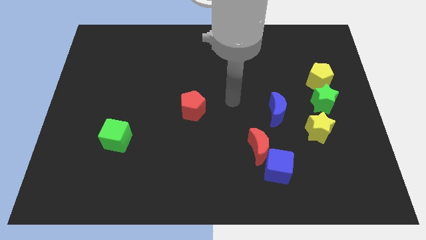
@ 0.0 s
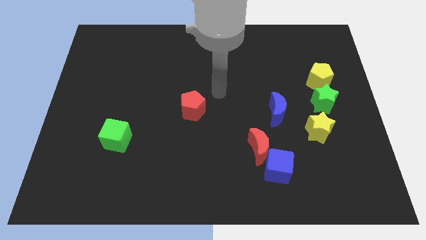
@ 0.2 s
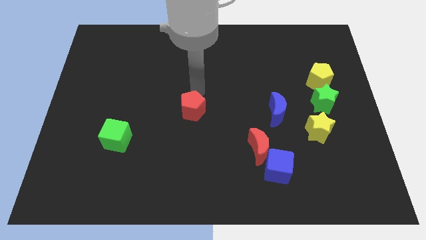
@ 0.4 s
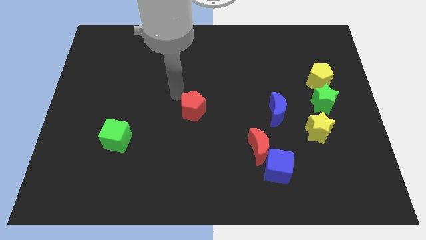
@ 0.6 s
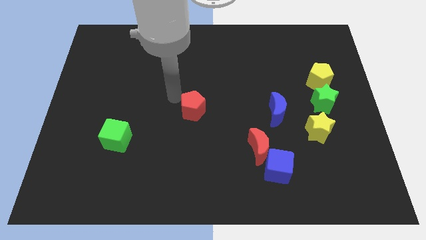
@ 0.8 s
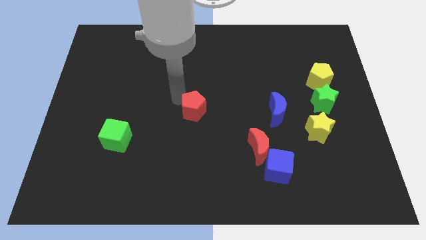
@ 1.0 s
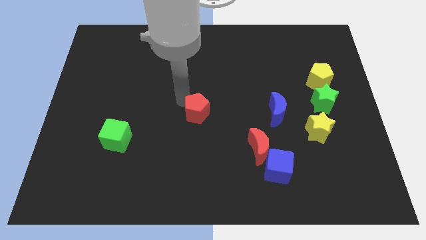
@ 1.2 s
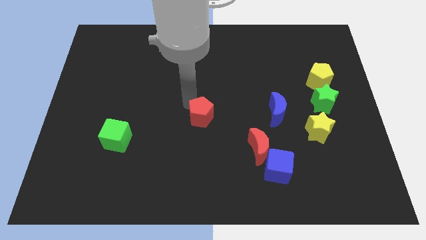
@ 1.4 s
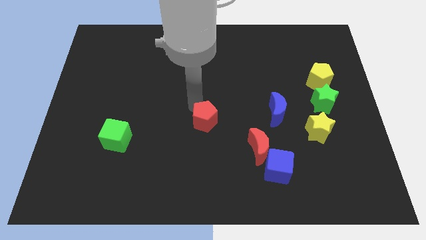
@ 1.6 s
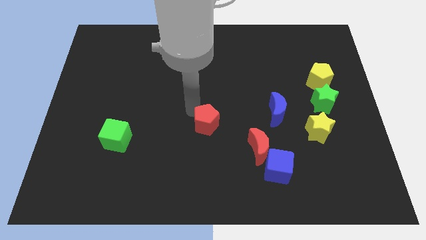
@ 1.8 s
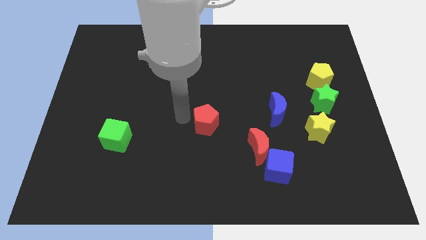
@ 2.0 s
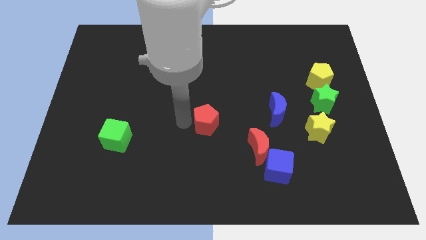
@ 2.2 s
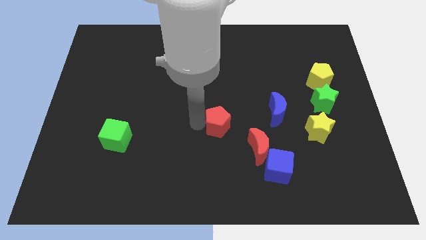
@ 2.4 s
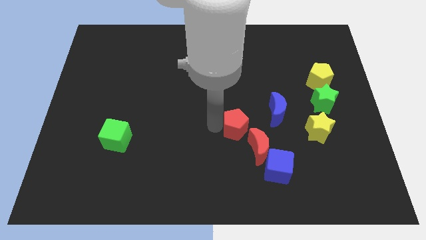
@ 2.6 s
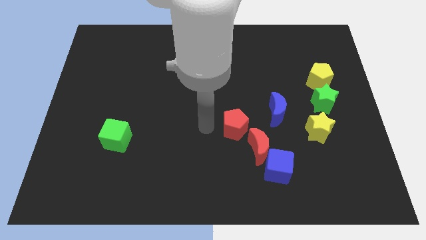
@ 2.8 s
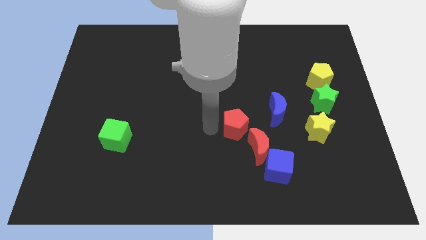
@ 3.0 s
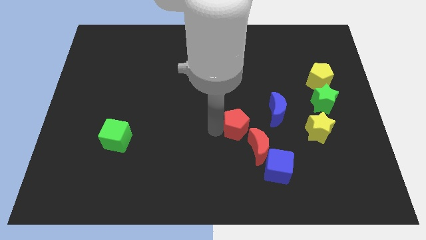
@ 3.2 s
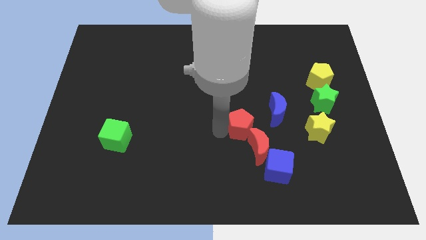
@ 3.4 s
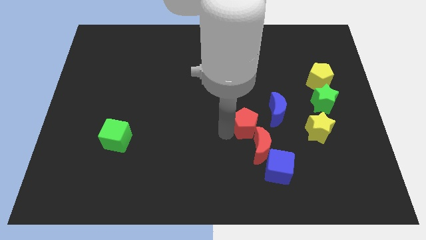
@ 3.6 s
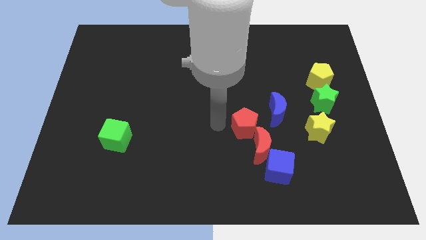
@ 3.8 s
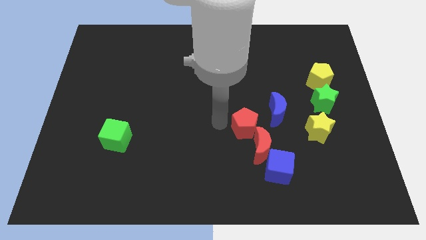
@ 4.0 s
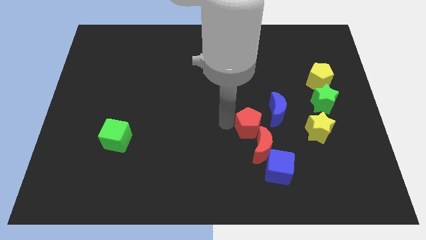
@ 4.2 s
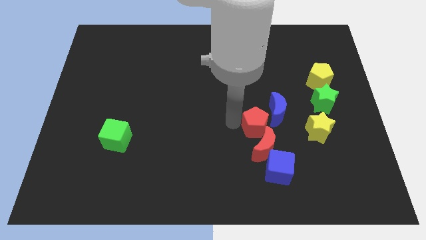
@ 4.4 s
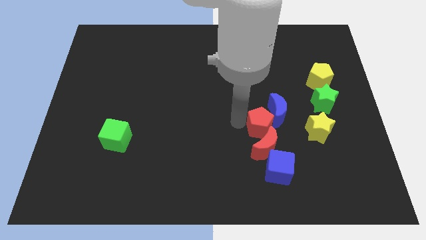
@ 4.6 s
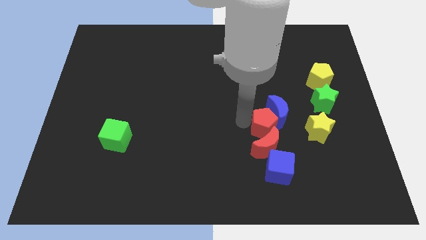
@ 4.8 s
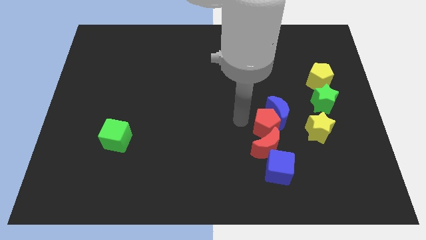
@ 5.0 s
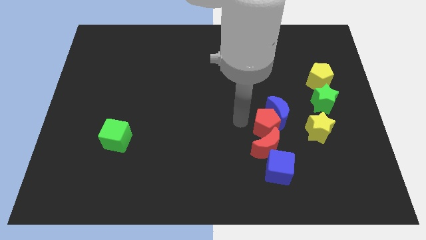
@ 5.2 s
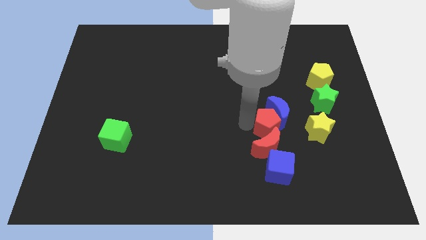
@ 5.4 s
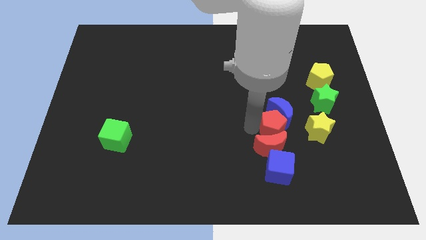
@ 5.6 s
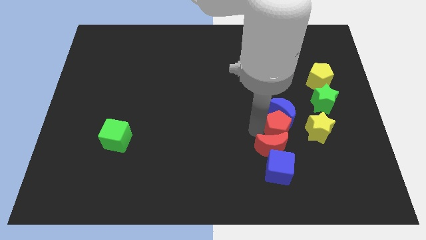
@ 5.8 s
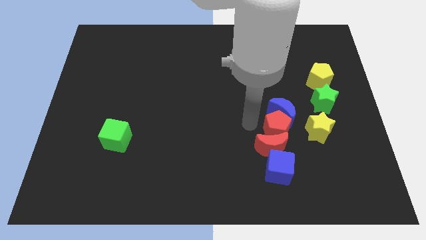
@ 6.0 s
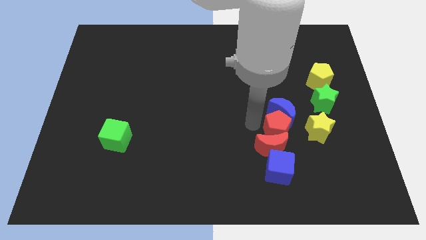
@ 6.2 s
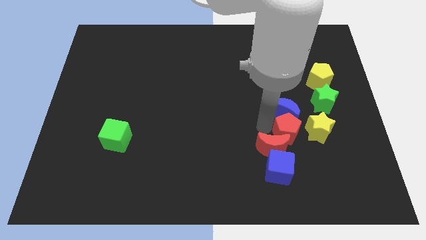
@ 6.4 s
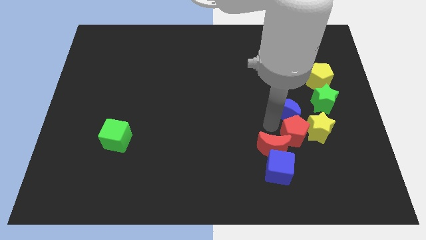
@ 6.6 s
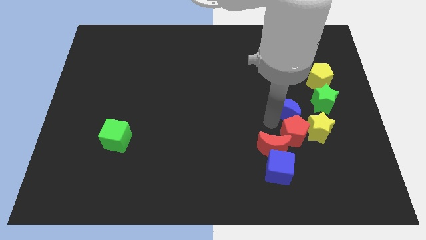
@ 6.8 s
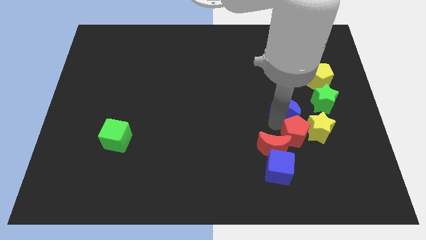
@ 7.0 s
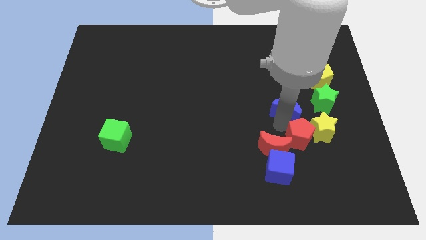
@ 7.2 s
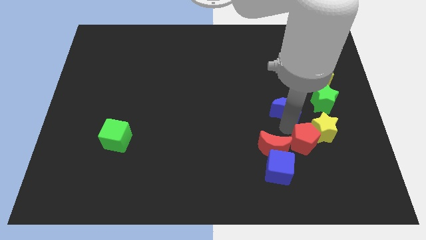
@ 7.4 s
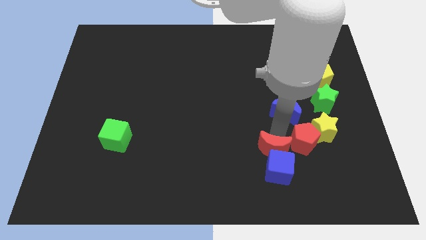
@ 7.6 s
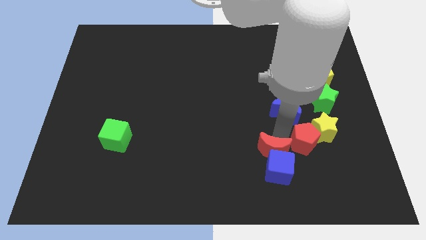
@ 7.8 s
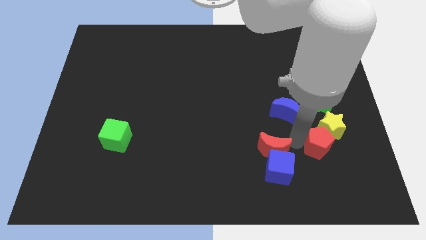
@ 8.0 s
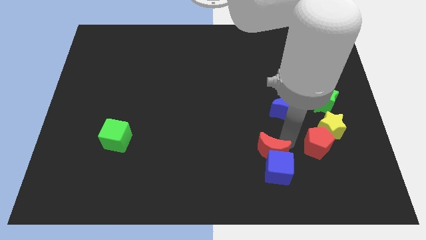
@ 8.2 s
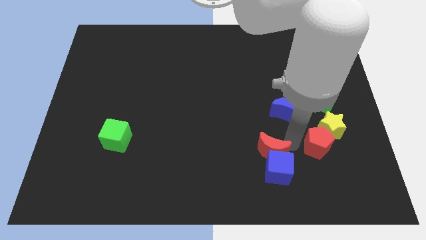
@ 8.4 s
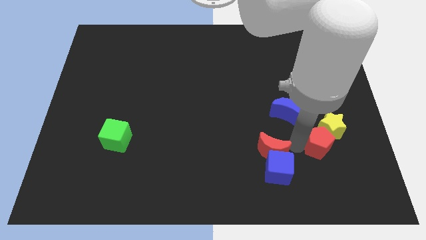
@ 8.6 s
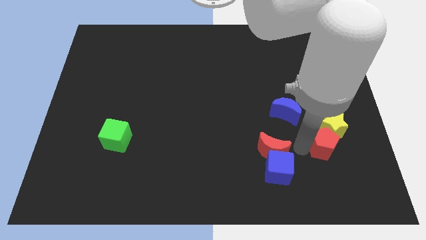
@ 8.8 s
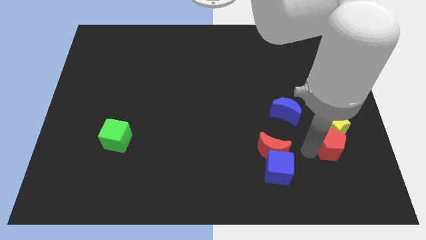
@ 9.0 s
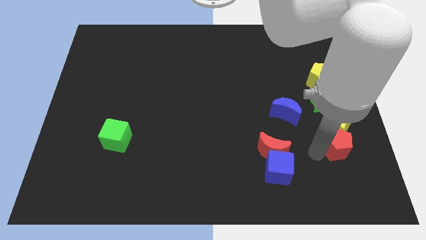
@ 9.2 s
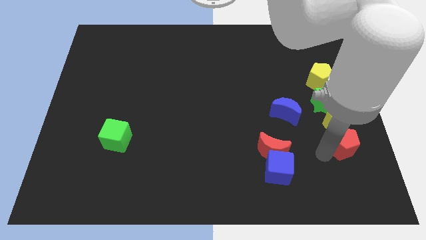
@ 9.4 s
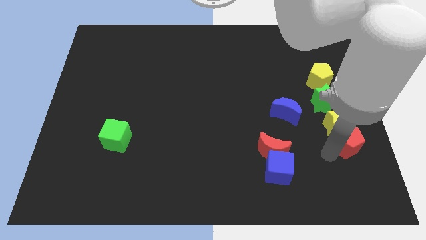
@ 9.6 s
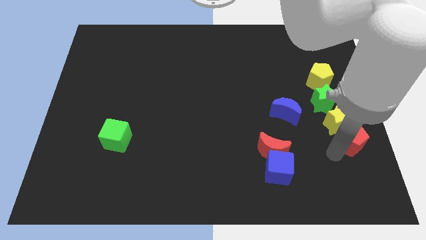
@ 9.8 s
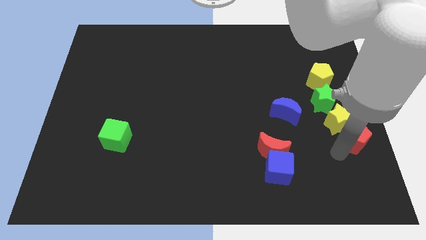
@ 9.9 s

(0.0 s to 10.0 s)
push the red pentagon to the right side

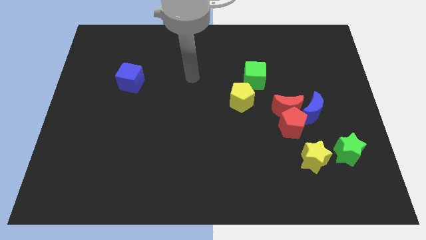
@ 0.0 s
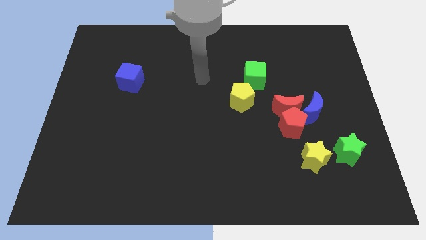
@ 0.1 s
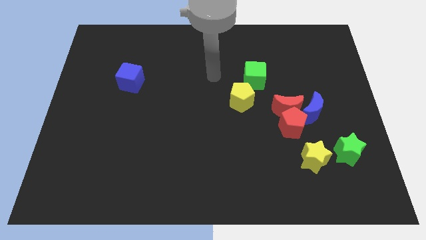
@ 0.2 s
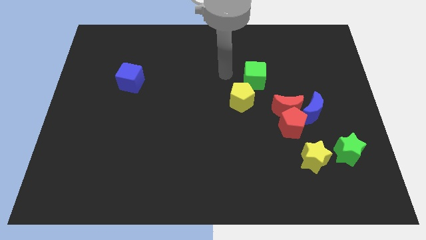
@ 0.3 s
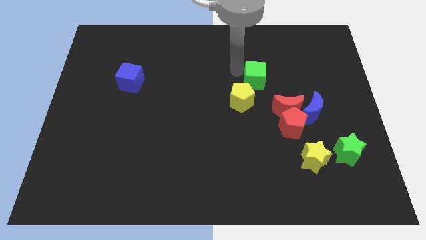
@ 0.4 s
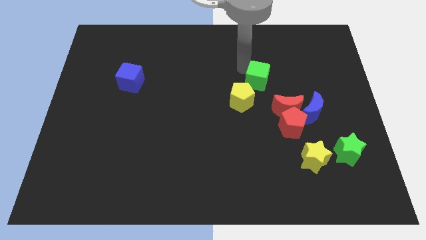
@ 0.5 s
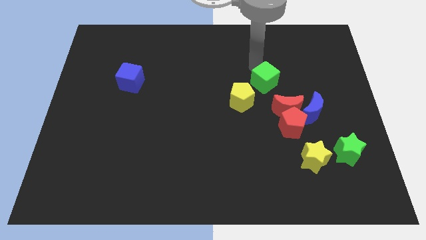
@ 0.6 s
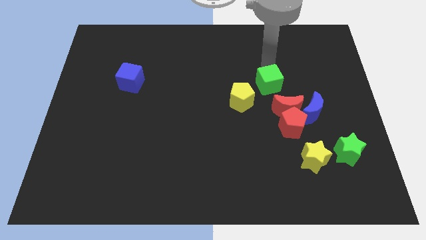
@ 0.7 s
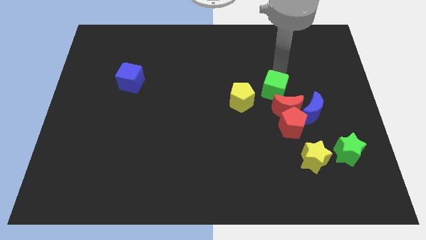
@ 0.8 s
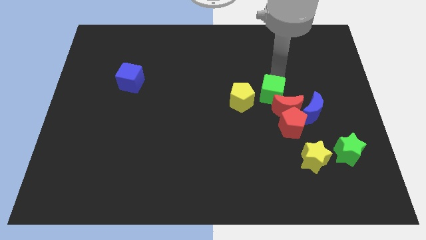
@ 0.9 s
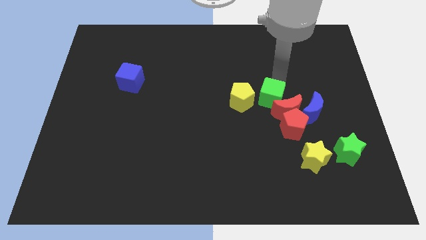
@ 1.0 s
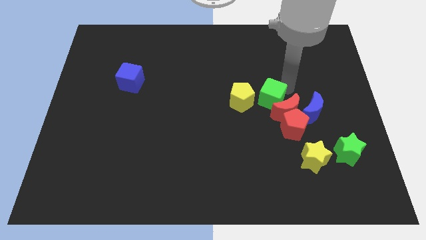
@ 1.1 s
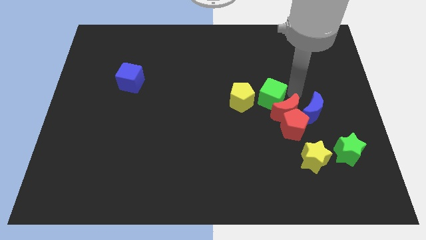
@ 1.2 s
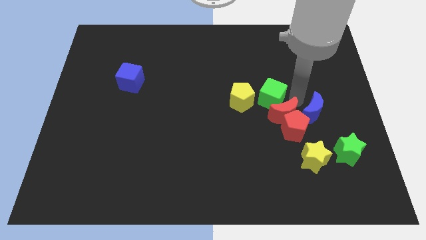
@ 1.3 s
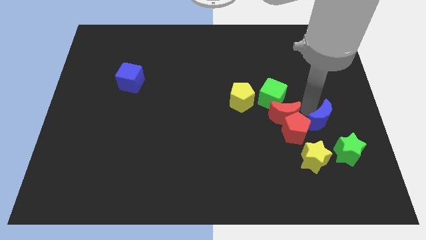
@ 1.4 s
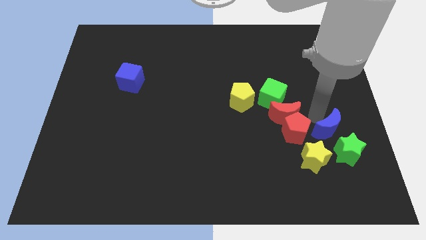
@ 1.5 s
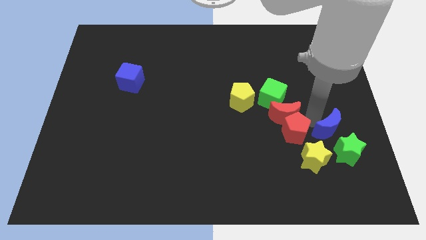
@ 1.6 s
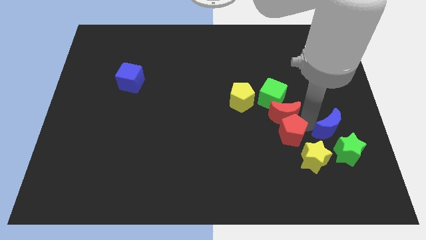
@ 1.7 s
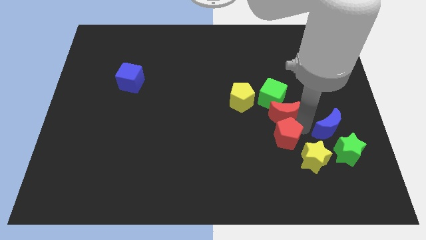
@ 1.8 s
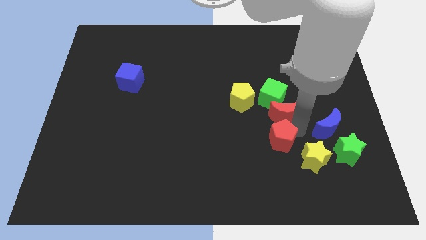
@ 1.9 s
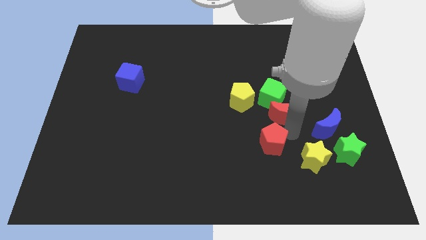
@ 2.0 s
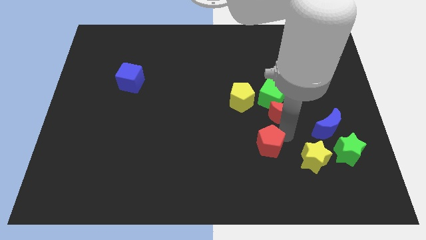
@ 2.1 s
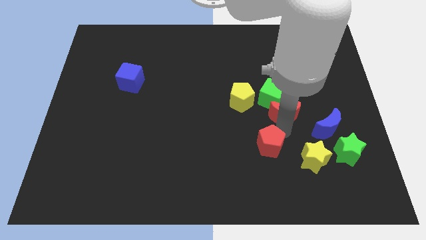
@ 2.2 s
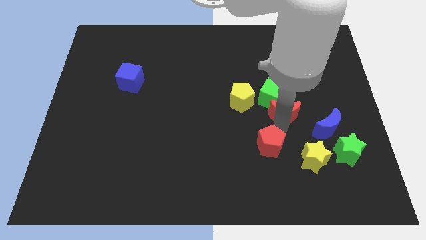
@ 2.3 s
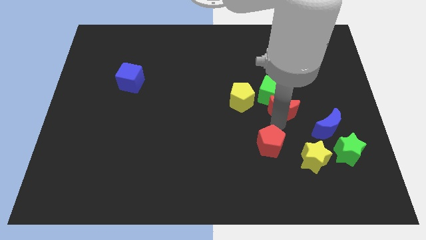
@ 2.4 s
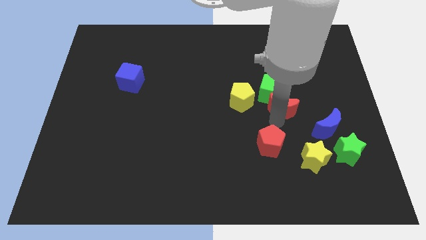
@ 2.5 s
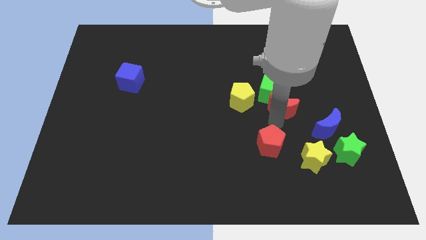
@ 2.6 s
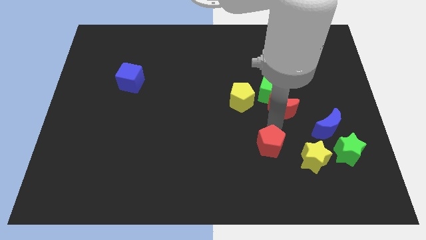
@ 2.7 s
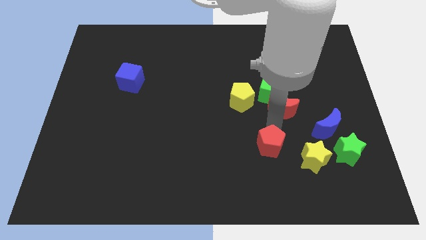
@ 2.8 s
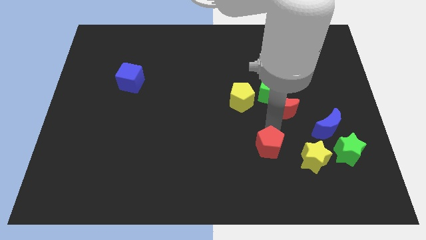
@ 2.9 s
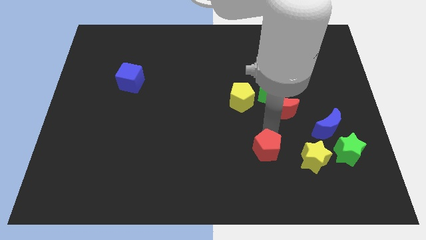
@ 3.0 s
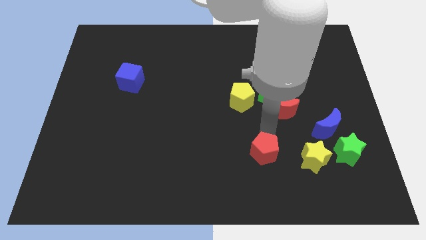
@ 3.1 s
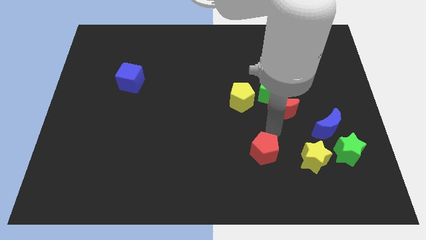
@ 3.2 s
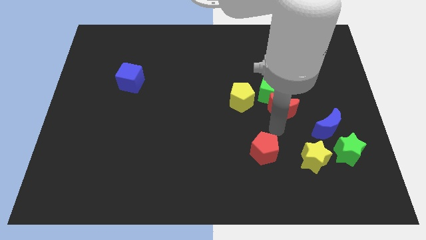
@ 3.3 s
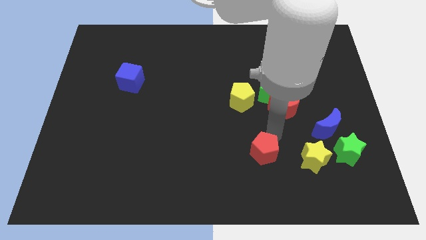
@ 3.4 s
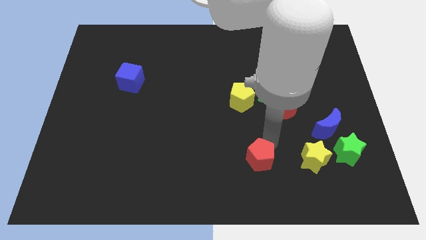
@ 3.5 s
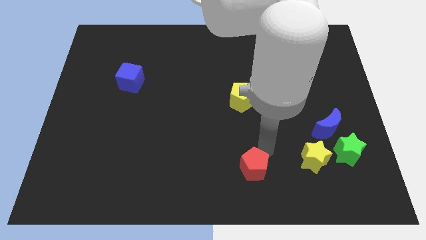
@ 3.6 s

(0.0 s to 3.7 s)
slide the red pentagon to the bottom
